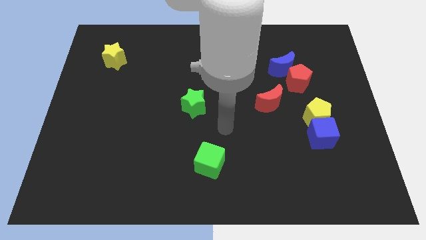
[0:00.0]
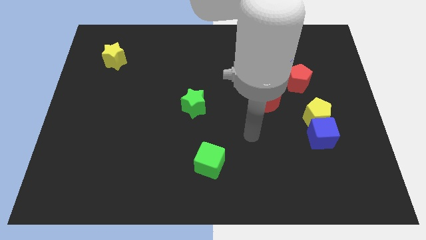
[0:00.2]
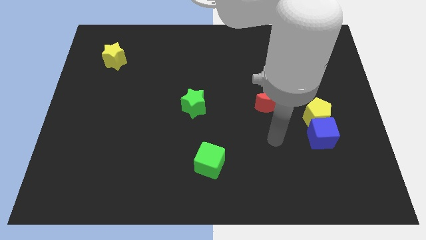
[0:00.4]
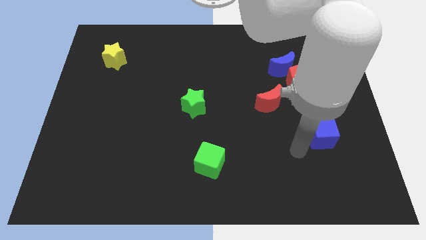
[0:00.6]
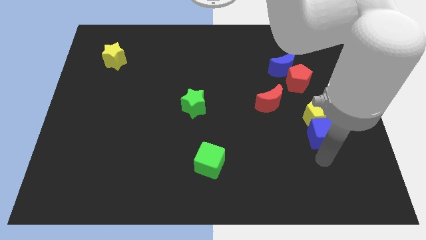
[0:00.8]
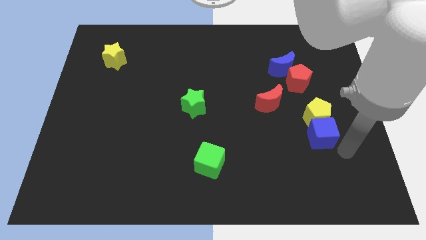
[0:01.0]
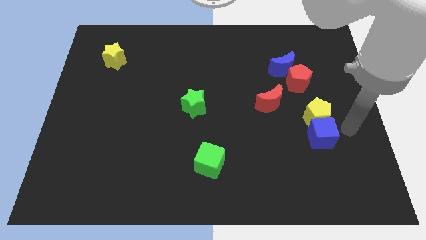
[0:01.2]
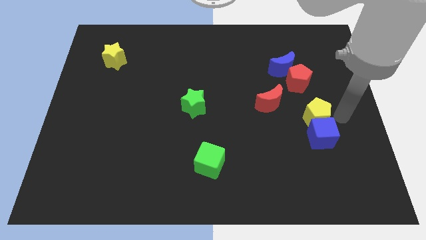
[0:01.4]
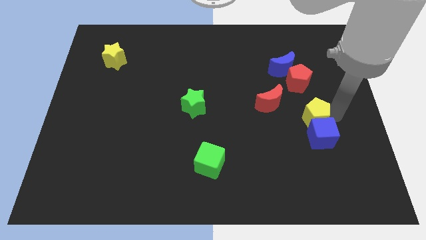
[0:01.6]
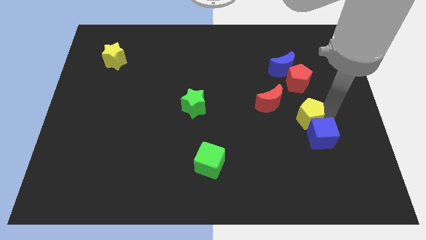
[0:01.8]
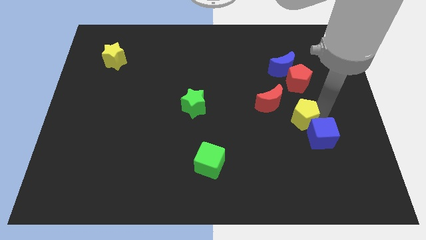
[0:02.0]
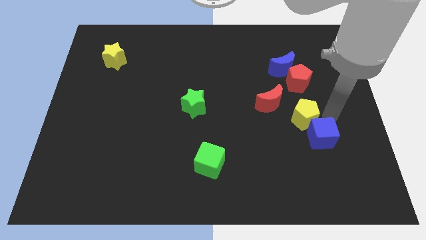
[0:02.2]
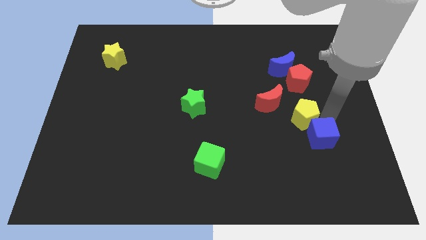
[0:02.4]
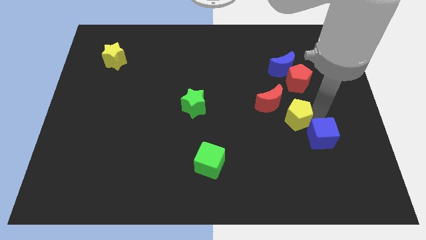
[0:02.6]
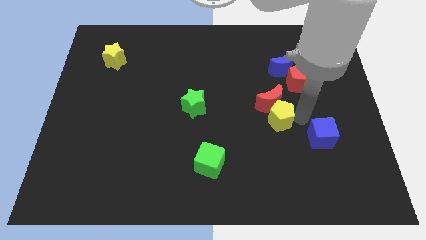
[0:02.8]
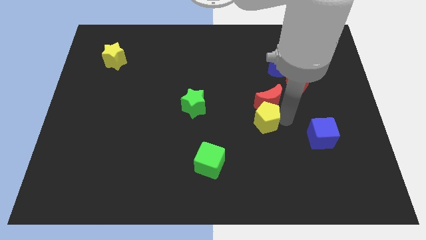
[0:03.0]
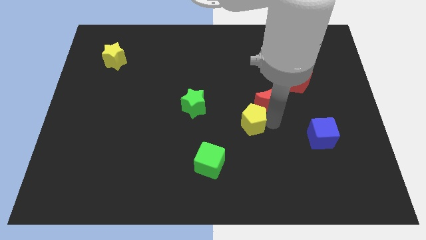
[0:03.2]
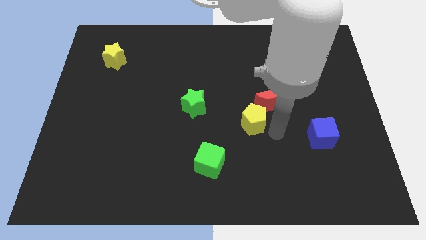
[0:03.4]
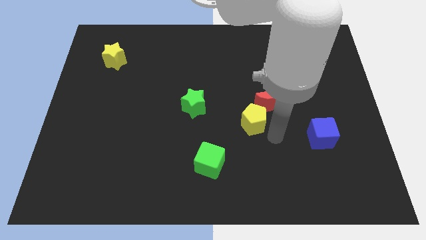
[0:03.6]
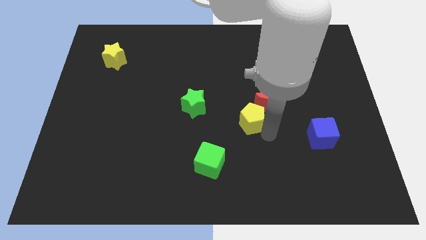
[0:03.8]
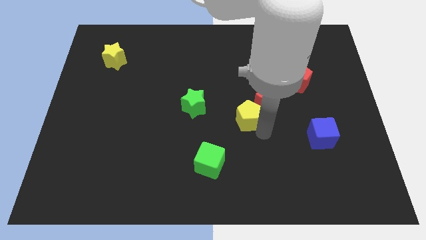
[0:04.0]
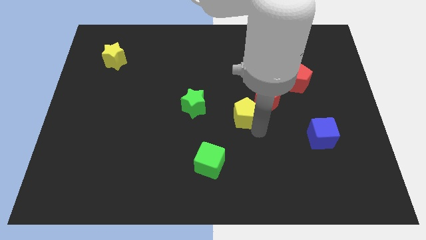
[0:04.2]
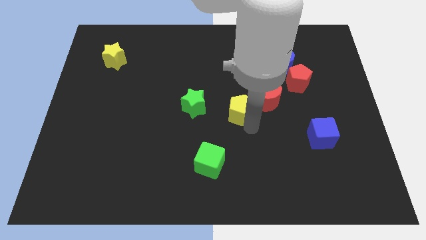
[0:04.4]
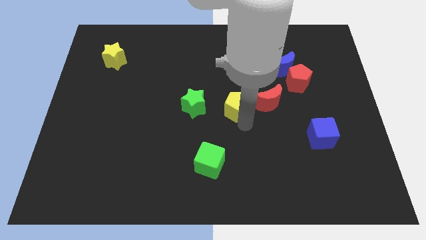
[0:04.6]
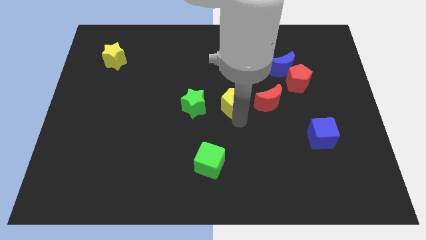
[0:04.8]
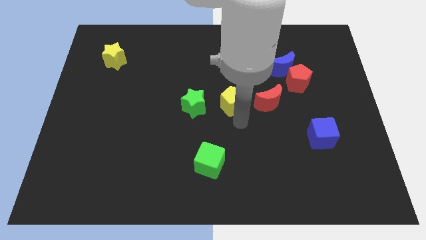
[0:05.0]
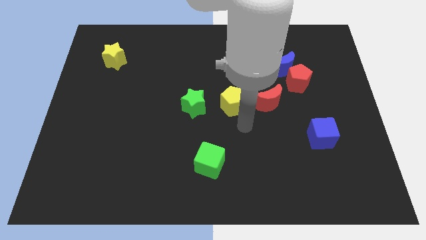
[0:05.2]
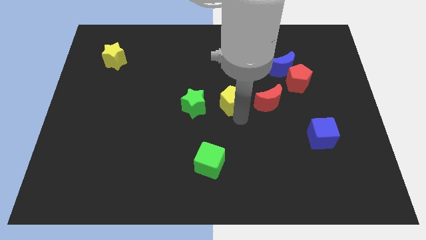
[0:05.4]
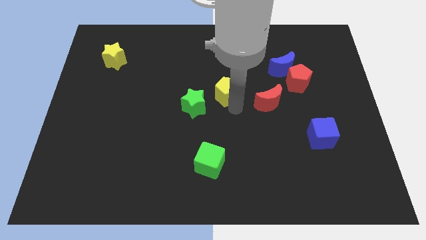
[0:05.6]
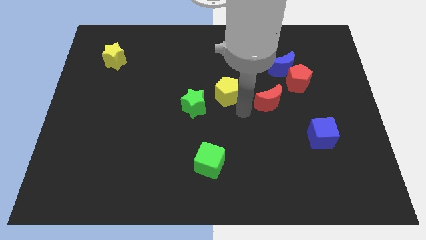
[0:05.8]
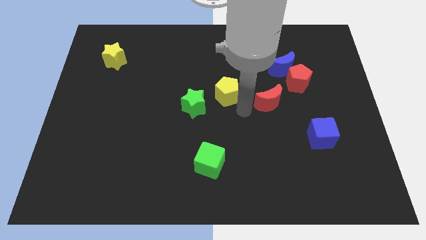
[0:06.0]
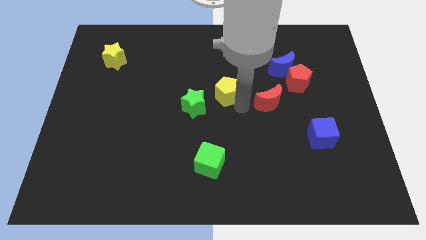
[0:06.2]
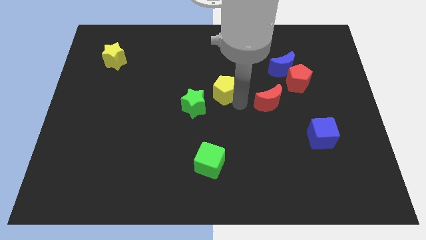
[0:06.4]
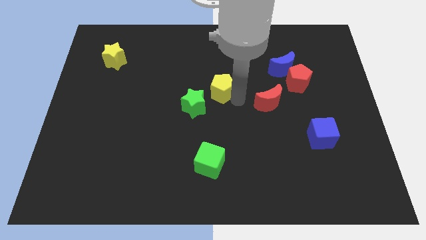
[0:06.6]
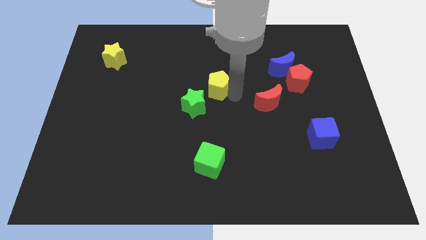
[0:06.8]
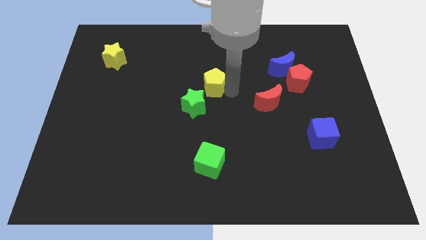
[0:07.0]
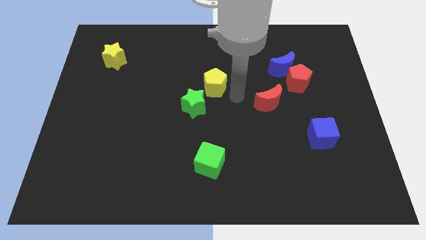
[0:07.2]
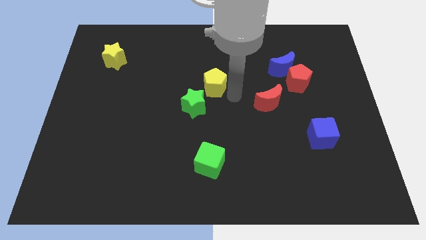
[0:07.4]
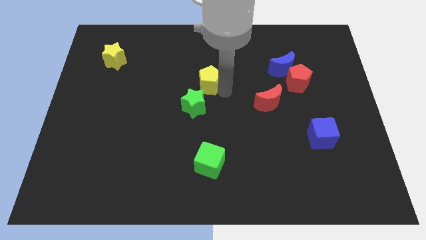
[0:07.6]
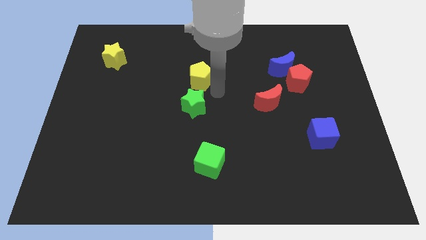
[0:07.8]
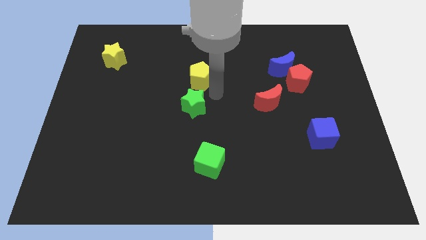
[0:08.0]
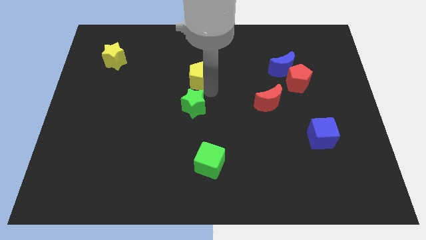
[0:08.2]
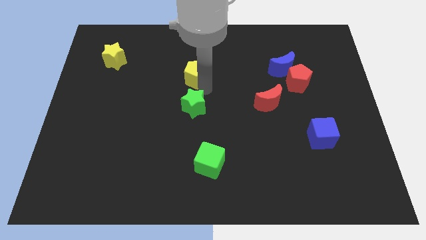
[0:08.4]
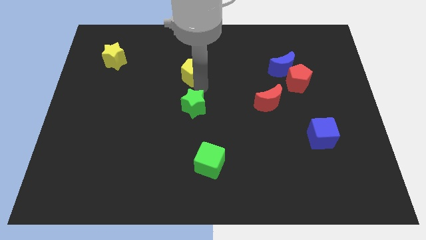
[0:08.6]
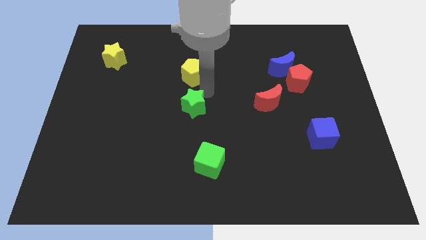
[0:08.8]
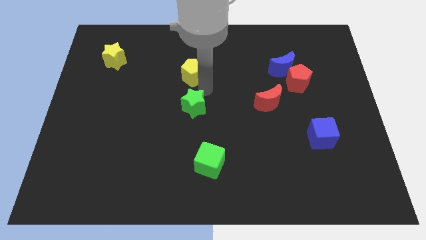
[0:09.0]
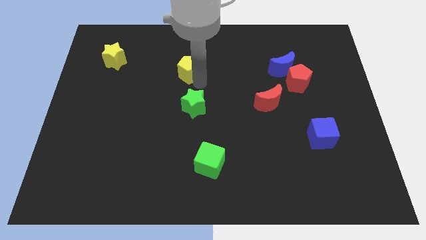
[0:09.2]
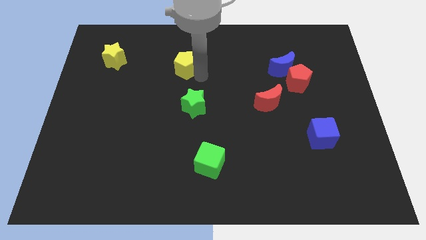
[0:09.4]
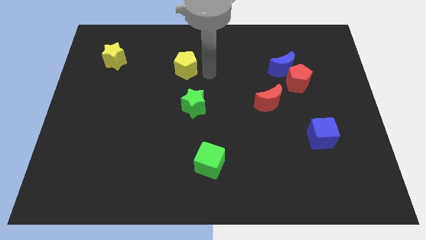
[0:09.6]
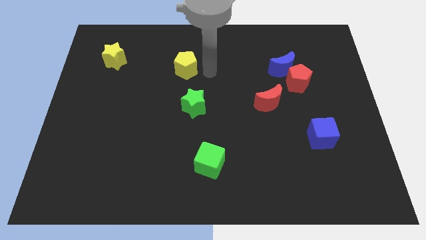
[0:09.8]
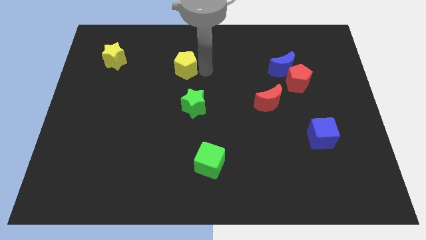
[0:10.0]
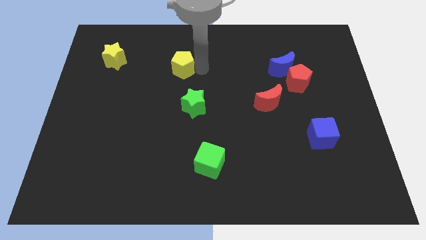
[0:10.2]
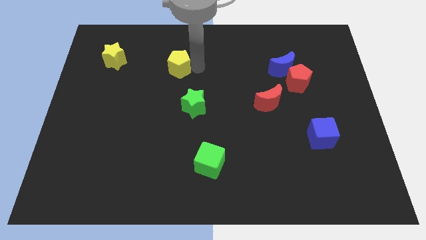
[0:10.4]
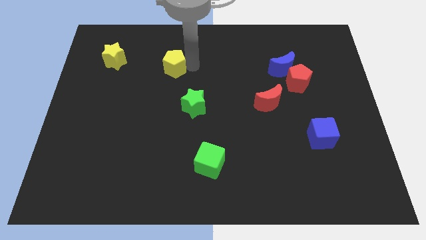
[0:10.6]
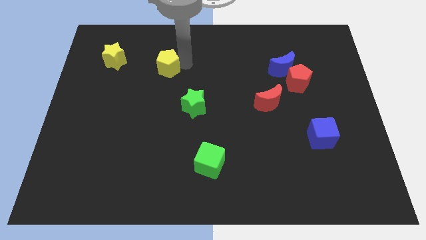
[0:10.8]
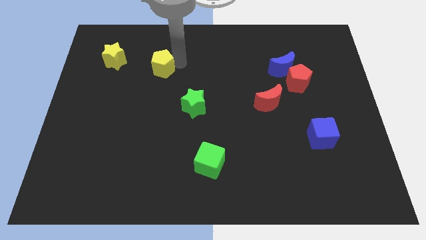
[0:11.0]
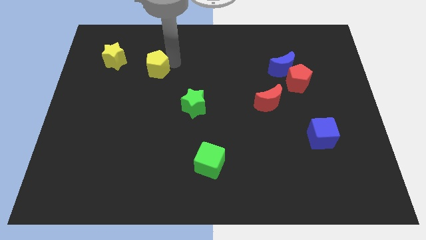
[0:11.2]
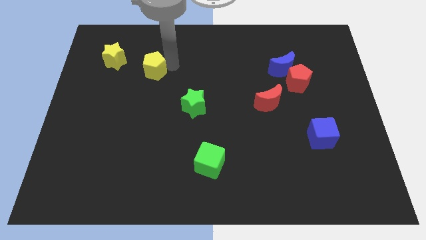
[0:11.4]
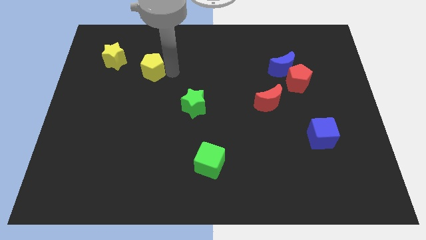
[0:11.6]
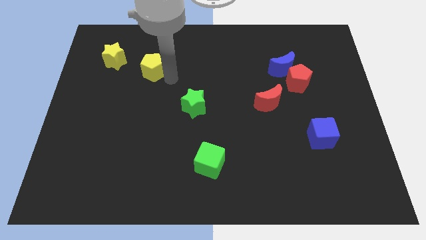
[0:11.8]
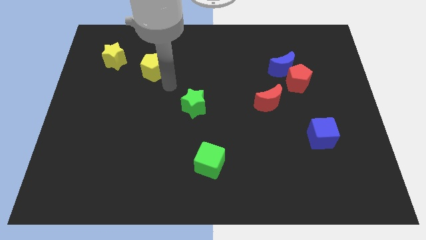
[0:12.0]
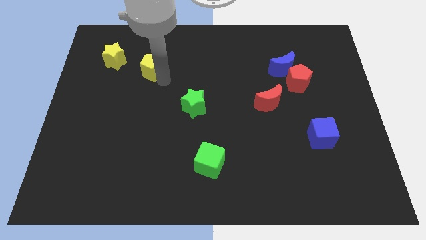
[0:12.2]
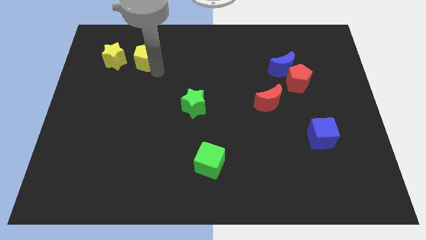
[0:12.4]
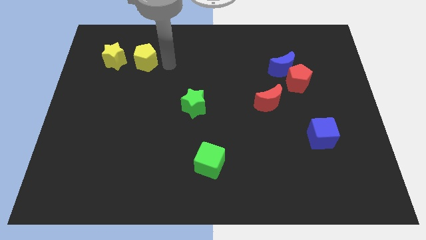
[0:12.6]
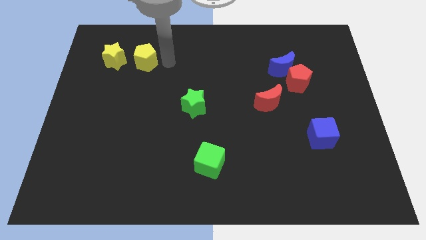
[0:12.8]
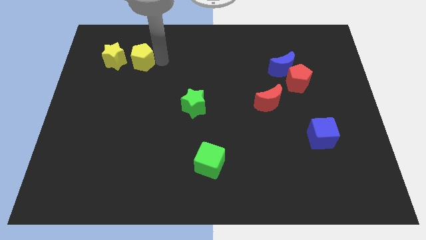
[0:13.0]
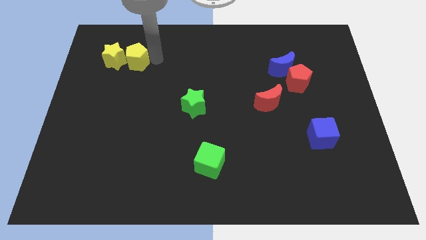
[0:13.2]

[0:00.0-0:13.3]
put the yellow pentagon close to the yellow star

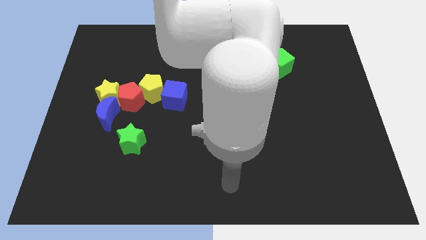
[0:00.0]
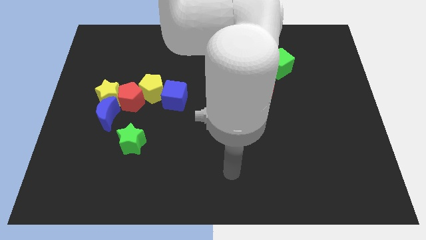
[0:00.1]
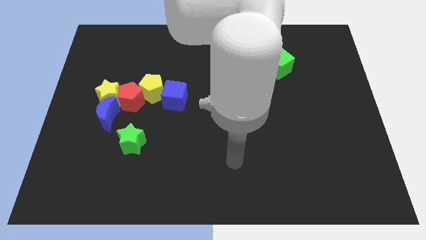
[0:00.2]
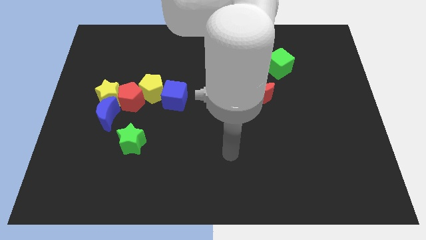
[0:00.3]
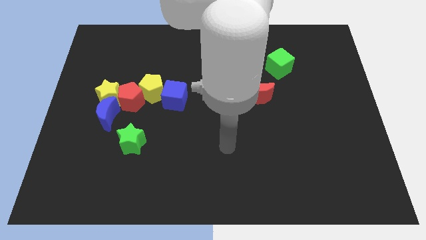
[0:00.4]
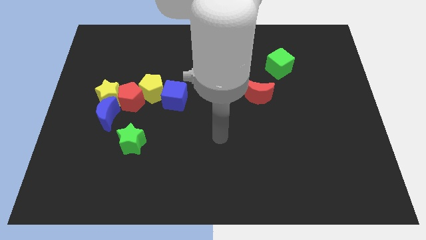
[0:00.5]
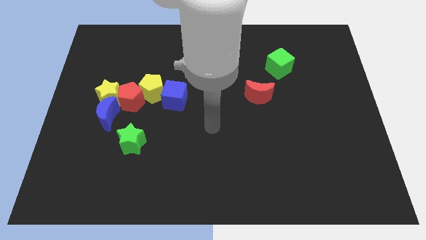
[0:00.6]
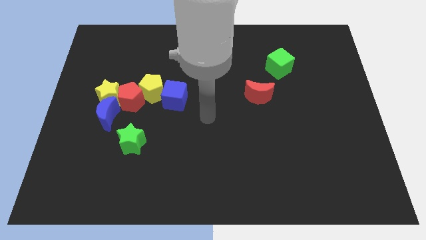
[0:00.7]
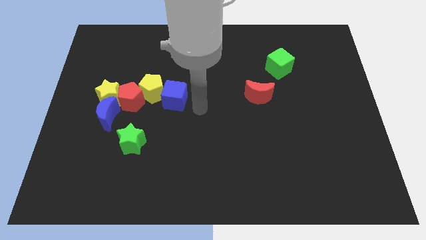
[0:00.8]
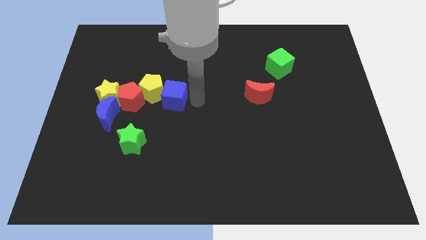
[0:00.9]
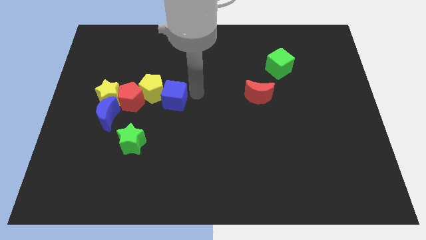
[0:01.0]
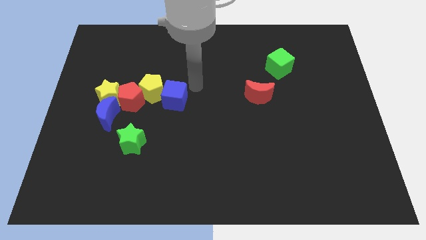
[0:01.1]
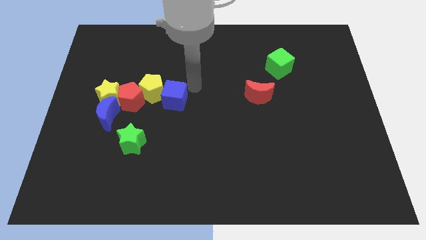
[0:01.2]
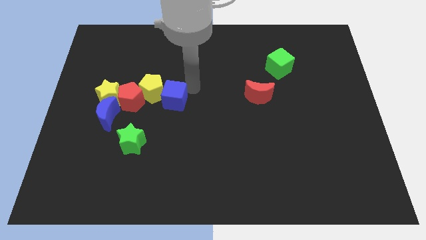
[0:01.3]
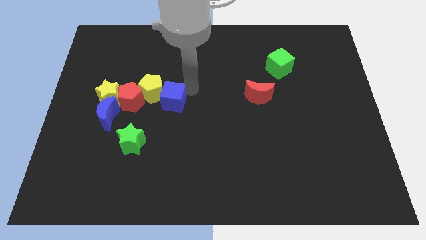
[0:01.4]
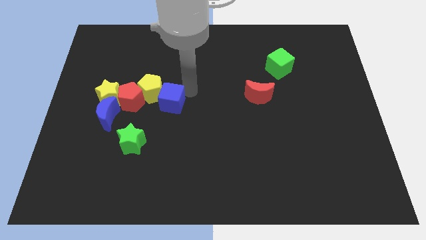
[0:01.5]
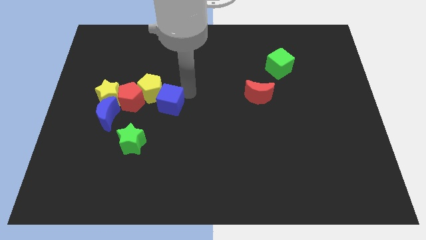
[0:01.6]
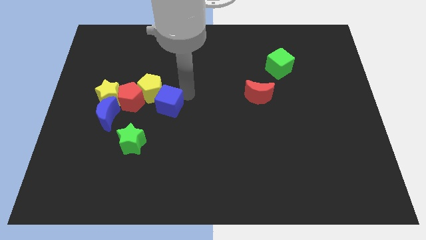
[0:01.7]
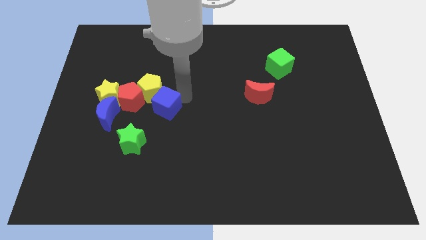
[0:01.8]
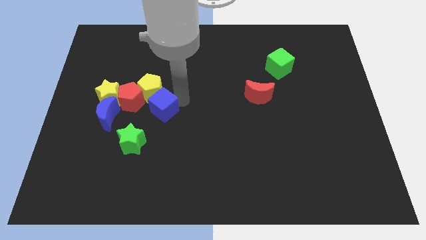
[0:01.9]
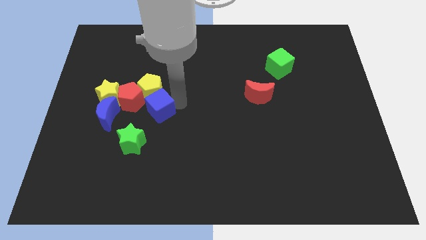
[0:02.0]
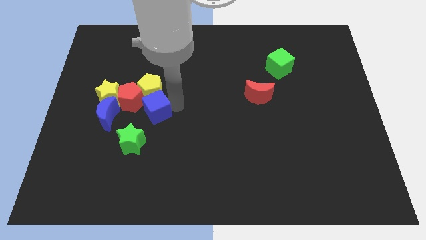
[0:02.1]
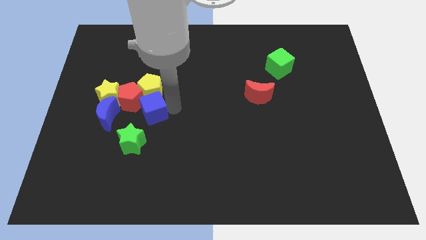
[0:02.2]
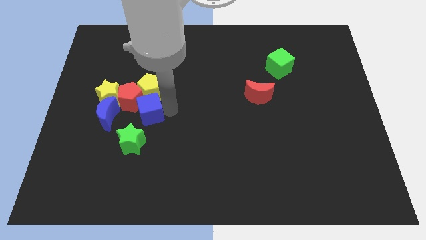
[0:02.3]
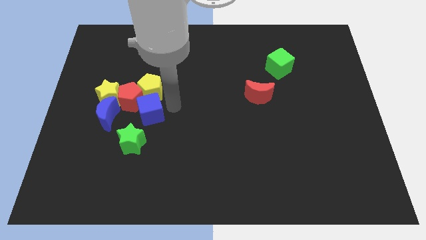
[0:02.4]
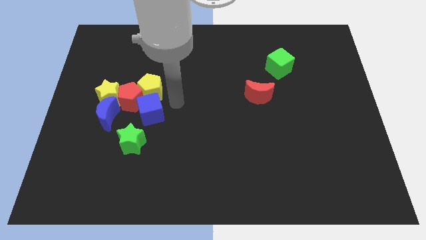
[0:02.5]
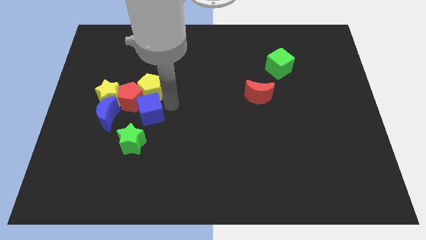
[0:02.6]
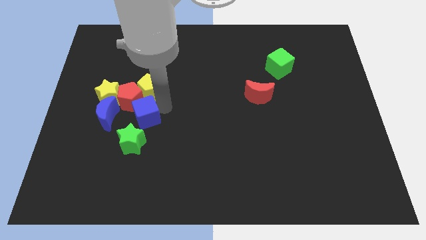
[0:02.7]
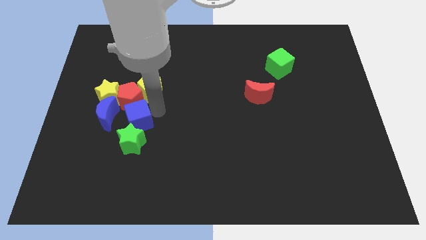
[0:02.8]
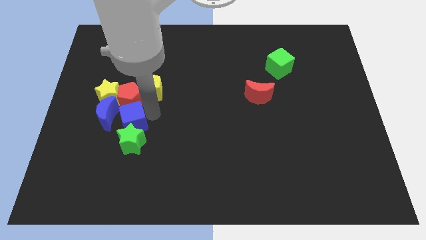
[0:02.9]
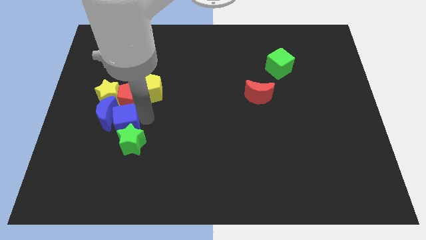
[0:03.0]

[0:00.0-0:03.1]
put the blue cube next to the blue moon
